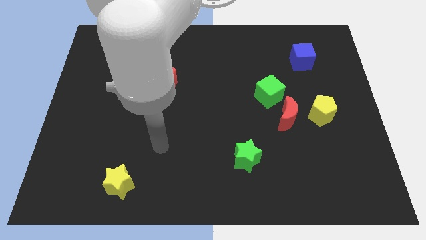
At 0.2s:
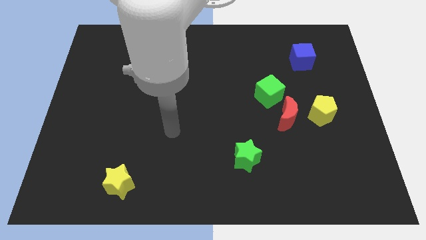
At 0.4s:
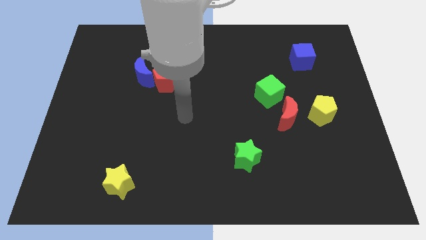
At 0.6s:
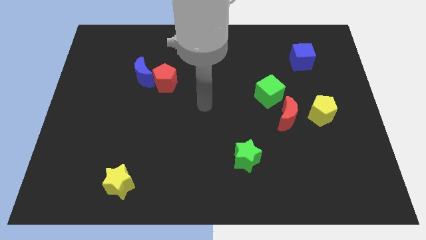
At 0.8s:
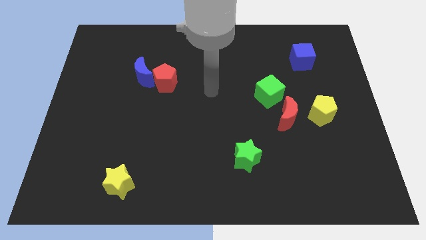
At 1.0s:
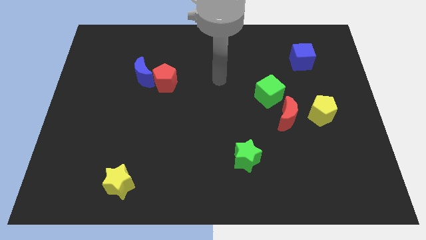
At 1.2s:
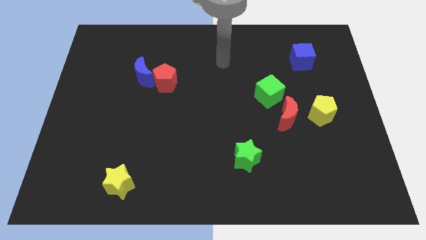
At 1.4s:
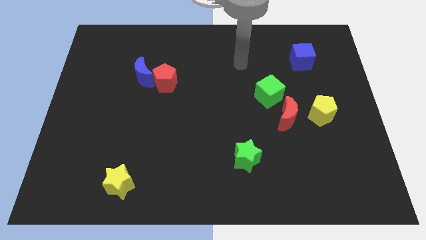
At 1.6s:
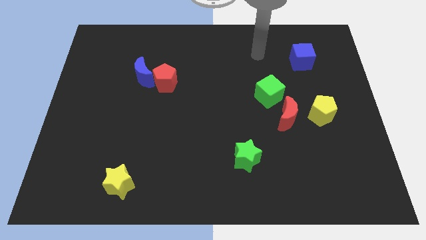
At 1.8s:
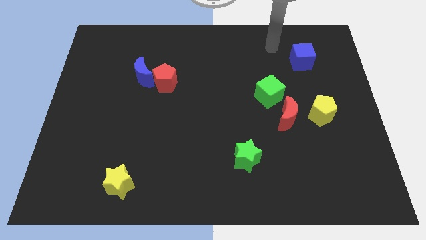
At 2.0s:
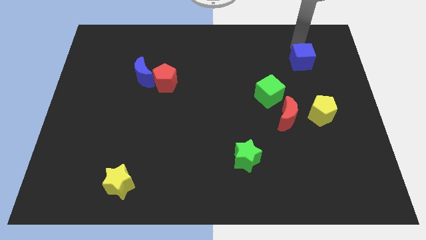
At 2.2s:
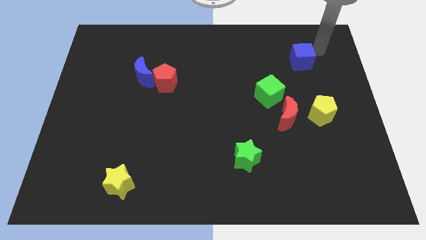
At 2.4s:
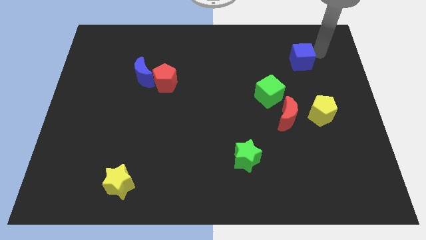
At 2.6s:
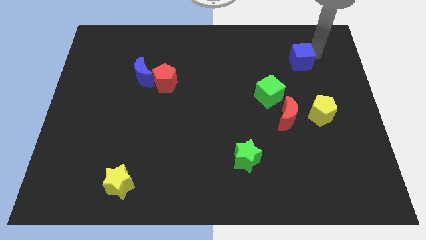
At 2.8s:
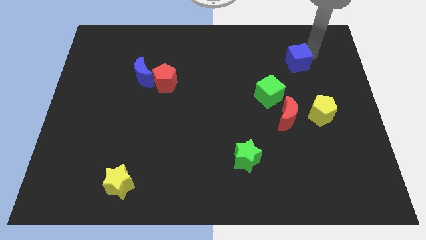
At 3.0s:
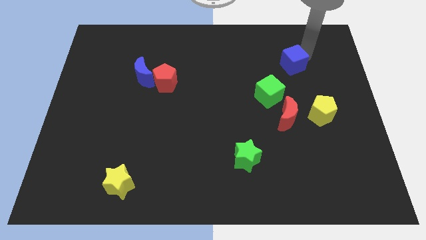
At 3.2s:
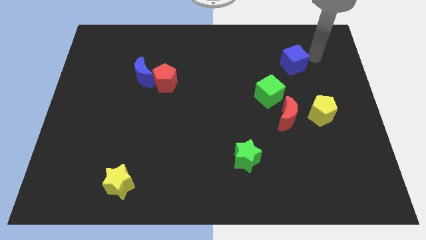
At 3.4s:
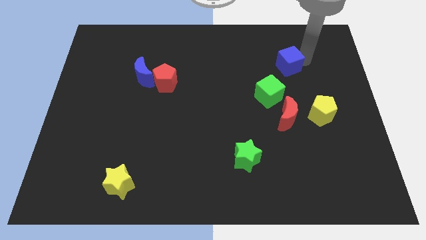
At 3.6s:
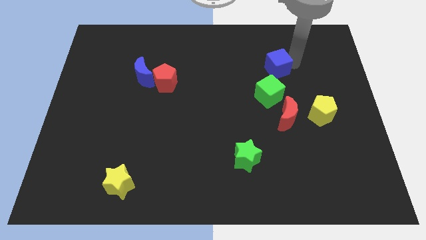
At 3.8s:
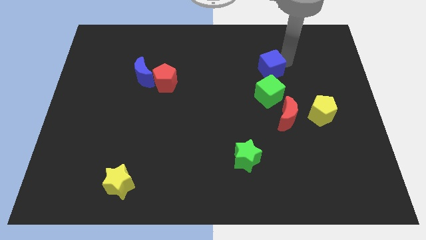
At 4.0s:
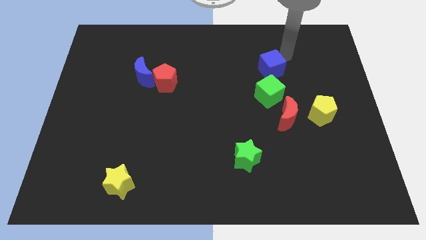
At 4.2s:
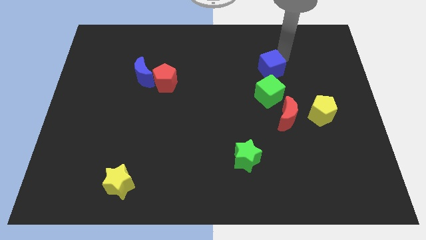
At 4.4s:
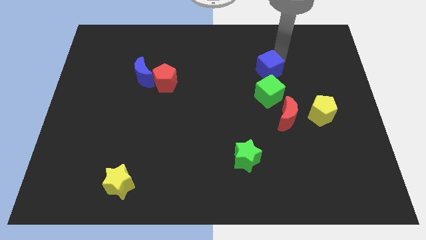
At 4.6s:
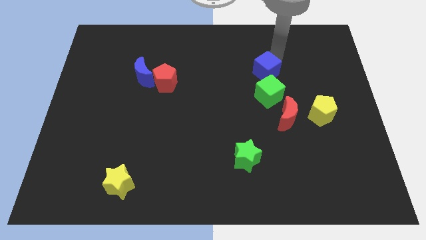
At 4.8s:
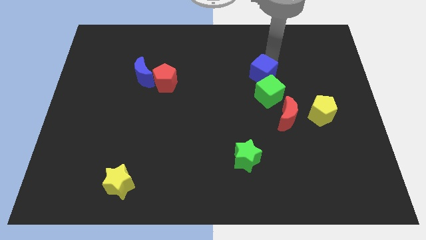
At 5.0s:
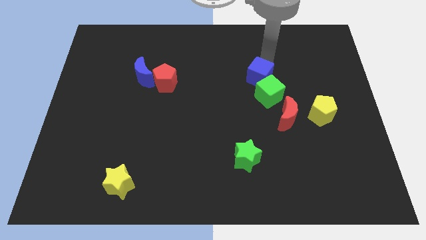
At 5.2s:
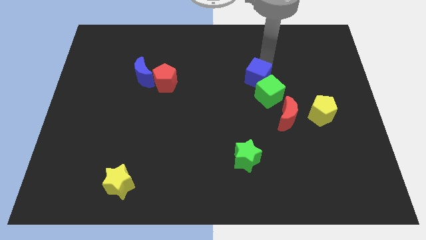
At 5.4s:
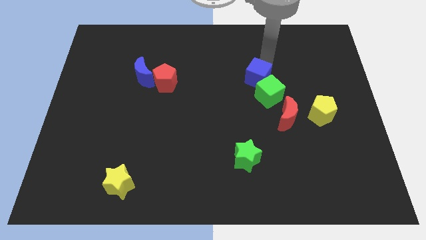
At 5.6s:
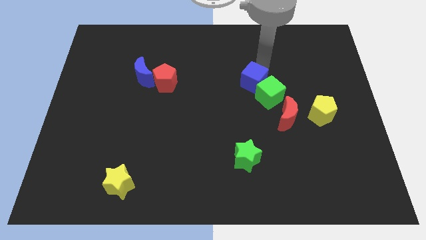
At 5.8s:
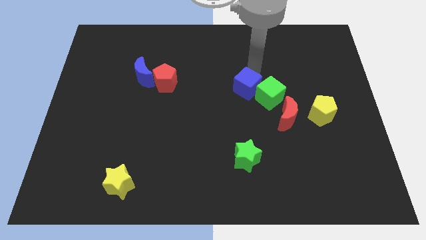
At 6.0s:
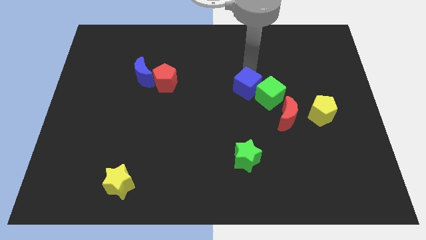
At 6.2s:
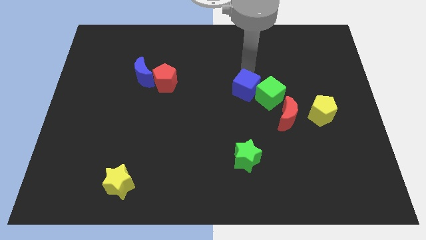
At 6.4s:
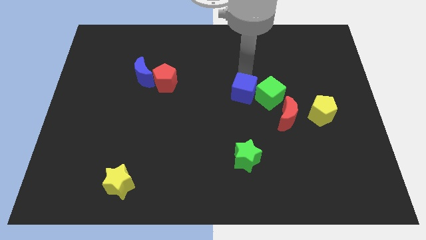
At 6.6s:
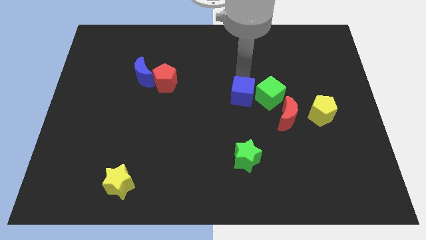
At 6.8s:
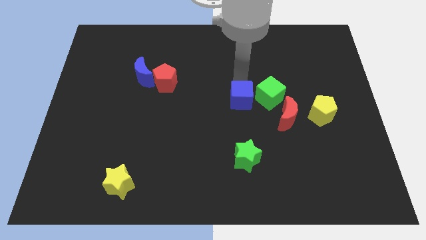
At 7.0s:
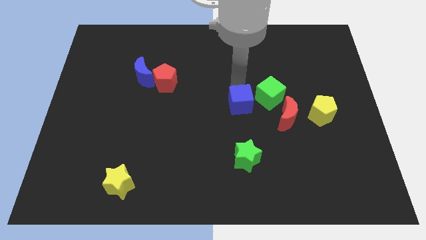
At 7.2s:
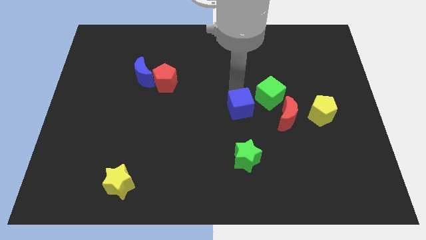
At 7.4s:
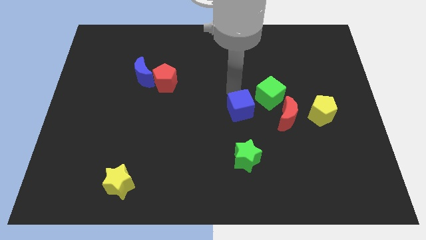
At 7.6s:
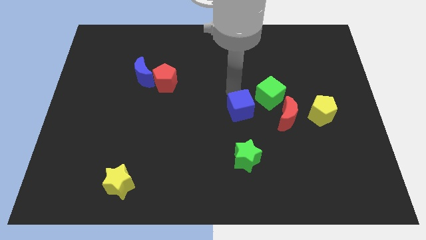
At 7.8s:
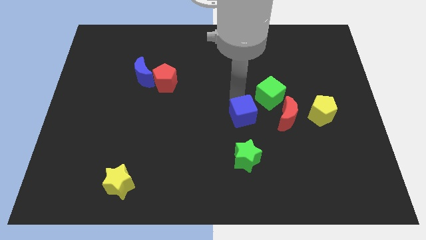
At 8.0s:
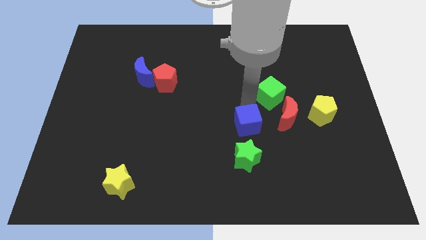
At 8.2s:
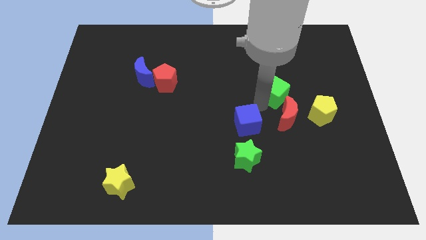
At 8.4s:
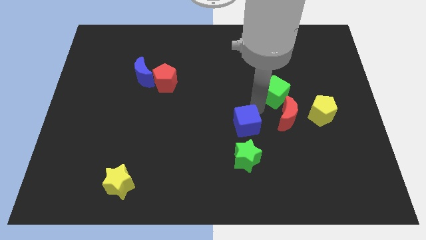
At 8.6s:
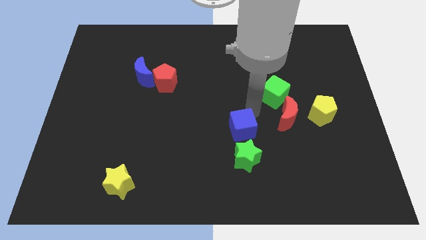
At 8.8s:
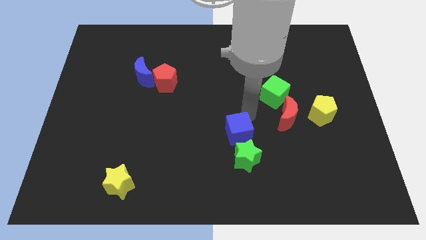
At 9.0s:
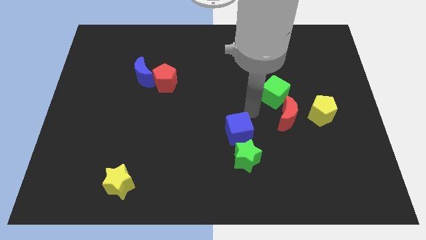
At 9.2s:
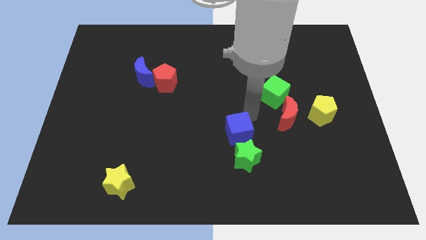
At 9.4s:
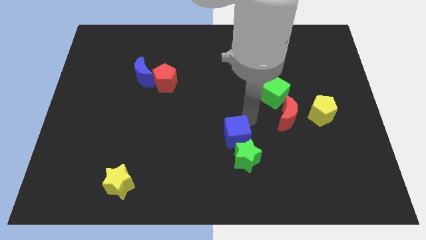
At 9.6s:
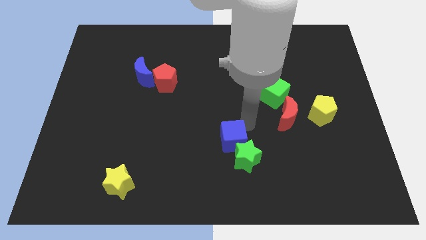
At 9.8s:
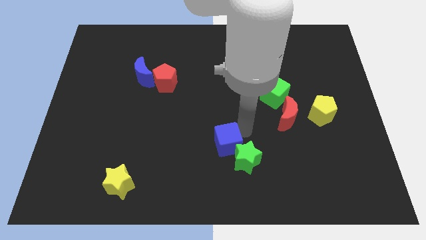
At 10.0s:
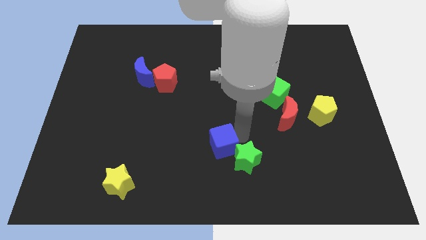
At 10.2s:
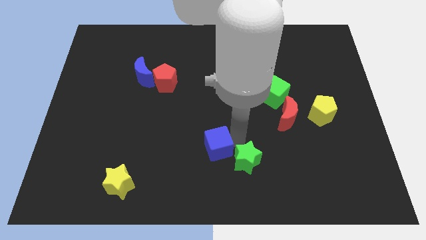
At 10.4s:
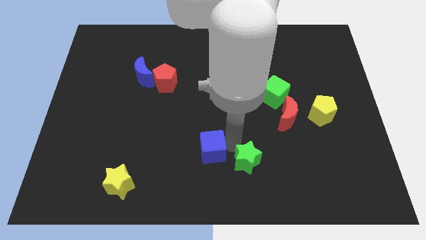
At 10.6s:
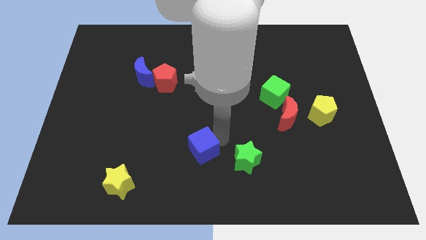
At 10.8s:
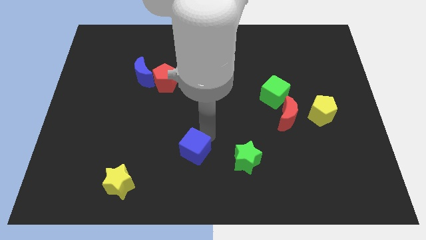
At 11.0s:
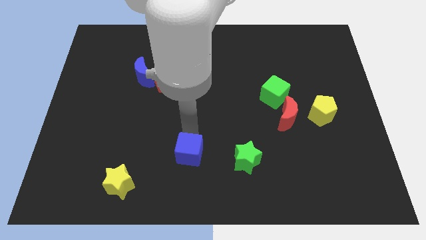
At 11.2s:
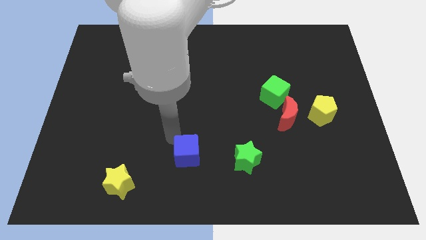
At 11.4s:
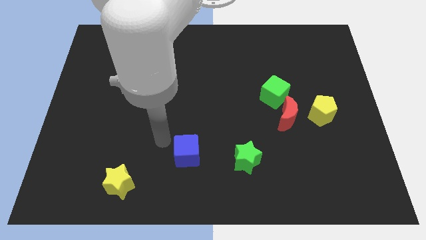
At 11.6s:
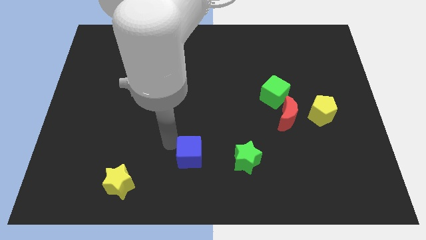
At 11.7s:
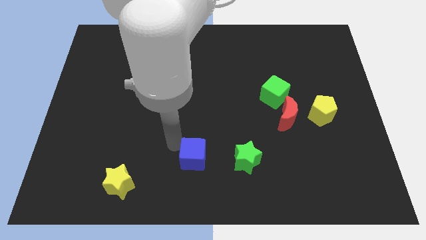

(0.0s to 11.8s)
push the blue cube to the bottom side
